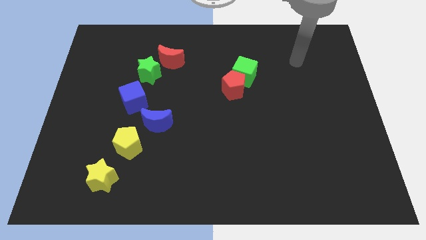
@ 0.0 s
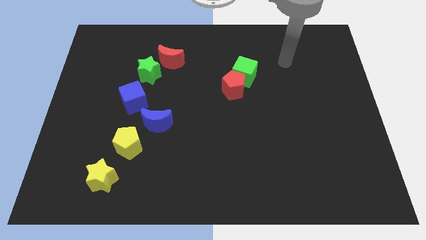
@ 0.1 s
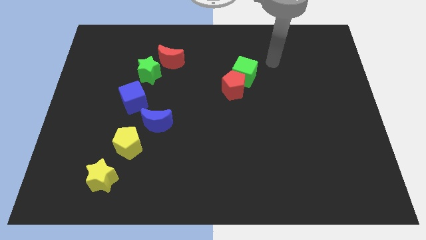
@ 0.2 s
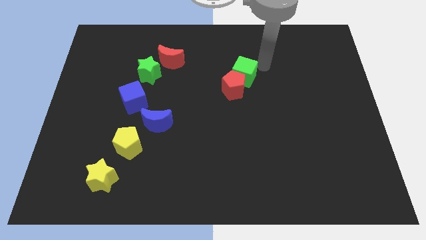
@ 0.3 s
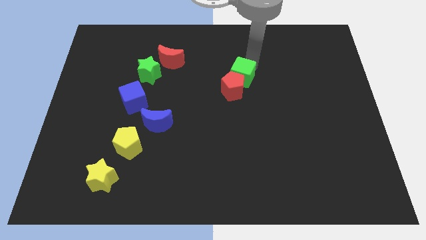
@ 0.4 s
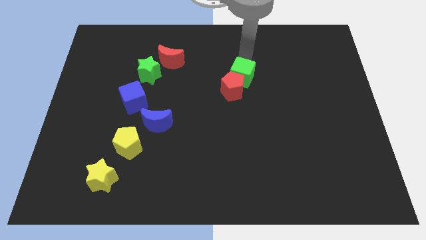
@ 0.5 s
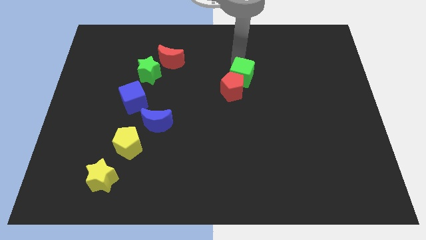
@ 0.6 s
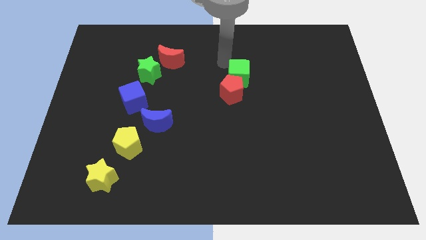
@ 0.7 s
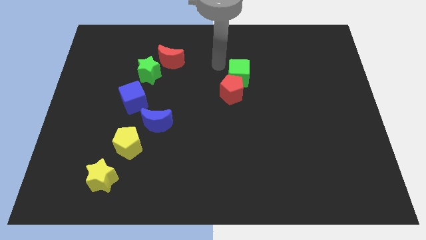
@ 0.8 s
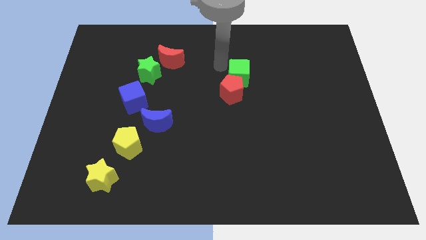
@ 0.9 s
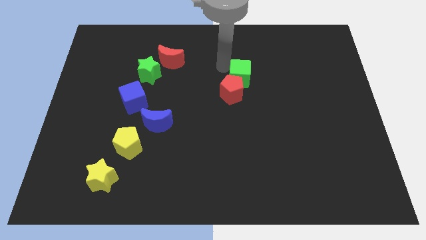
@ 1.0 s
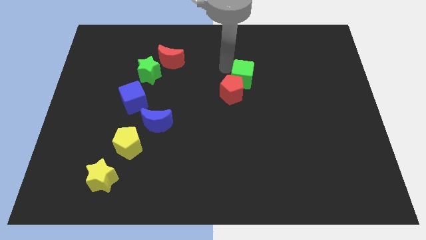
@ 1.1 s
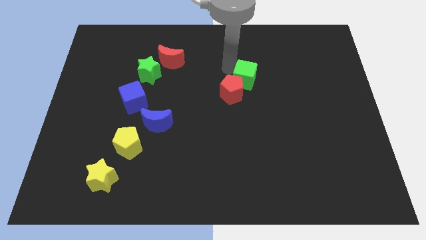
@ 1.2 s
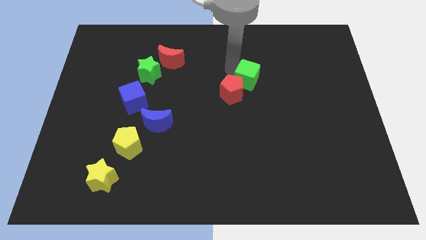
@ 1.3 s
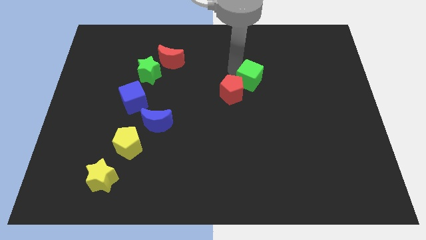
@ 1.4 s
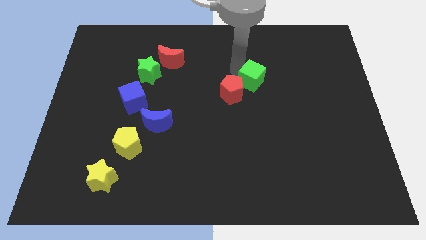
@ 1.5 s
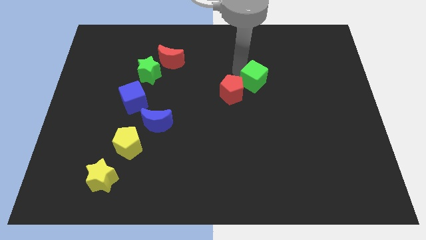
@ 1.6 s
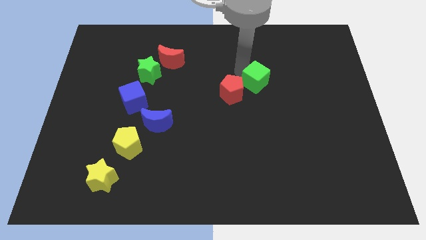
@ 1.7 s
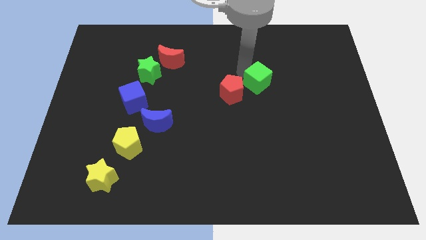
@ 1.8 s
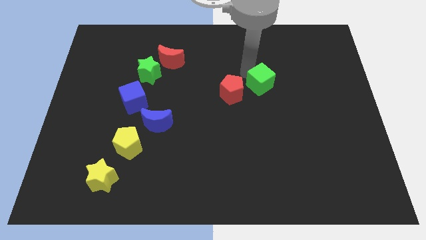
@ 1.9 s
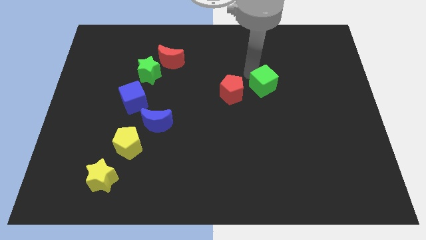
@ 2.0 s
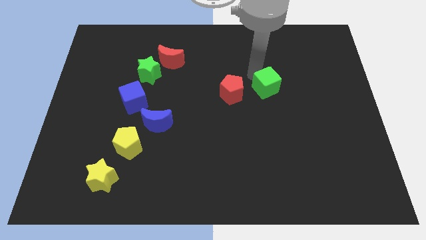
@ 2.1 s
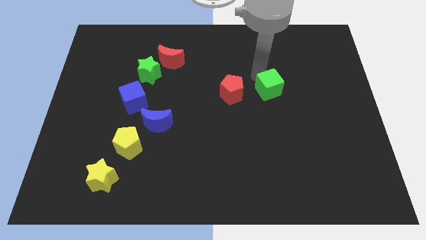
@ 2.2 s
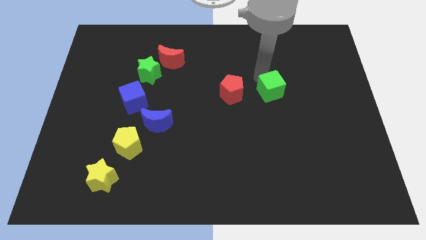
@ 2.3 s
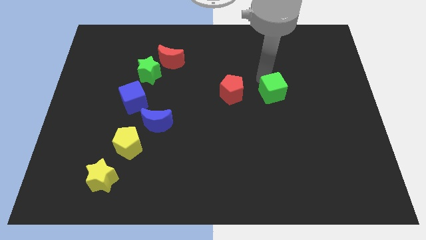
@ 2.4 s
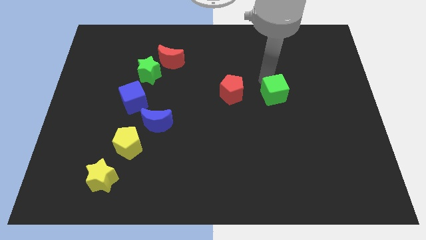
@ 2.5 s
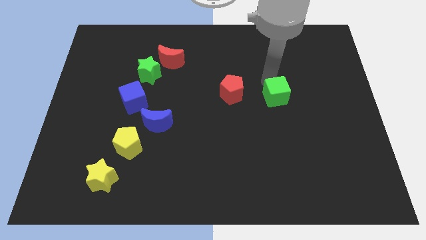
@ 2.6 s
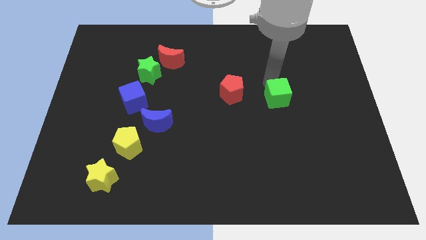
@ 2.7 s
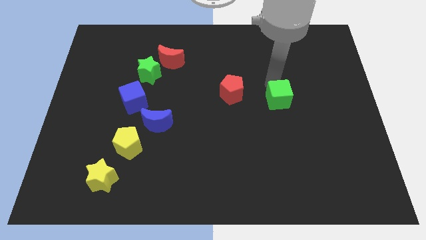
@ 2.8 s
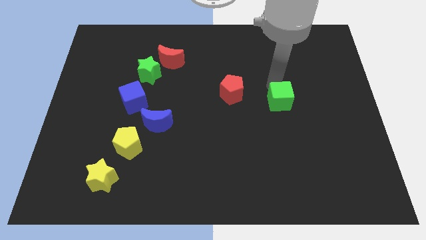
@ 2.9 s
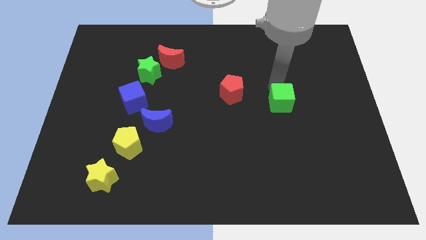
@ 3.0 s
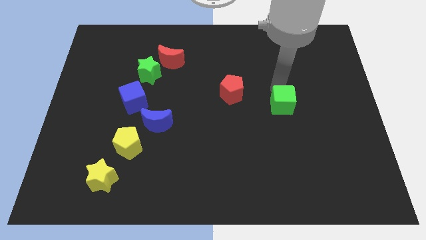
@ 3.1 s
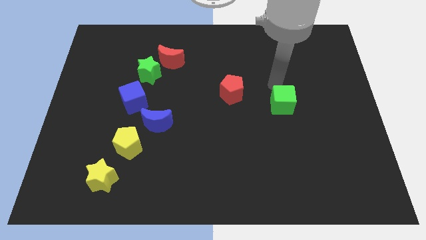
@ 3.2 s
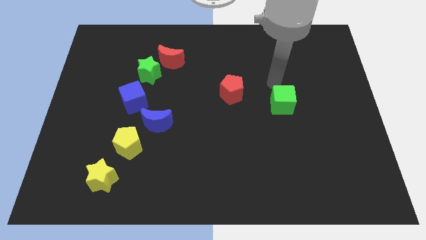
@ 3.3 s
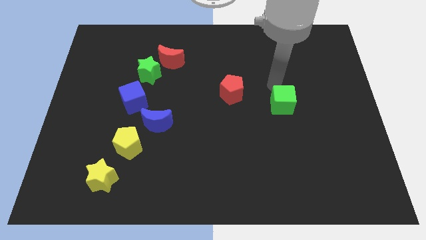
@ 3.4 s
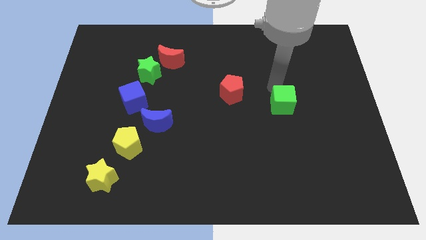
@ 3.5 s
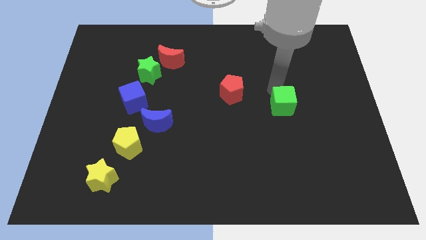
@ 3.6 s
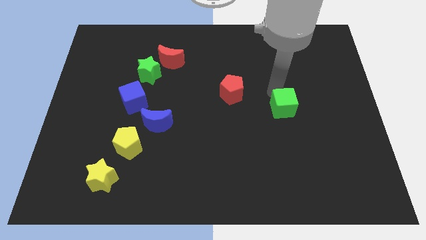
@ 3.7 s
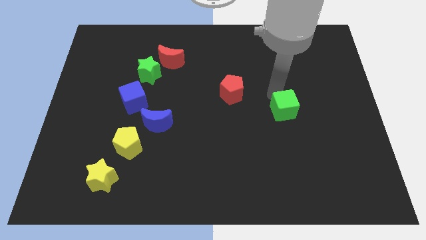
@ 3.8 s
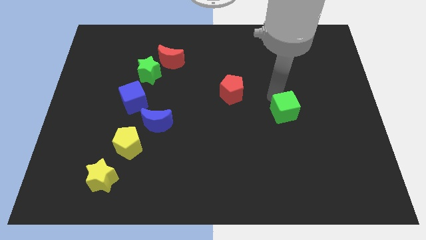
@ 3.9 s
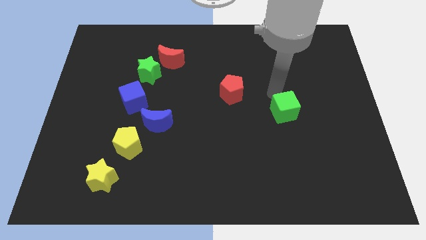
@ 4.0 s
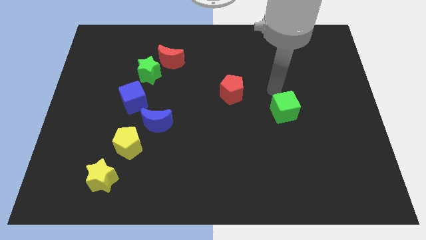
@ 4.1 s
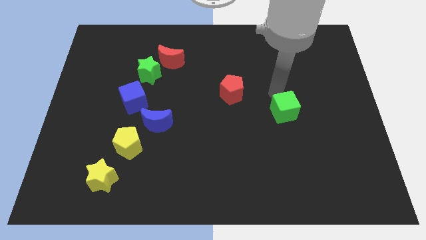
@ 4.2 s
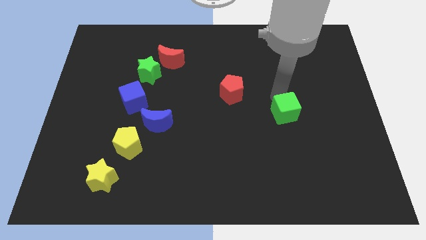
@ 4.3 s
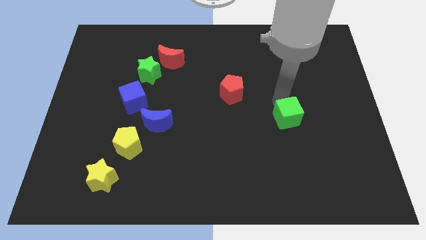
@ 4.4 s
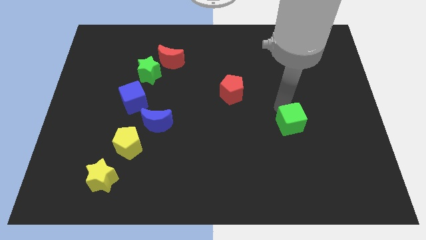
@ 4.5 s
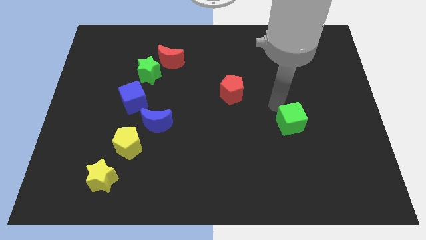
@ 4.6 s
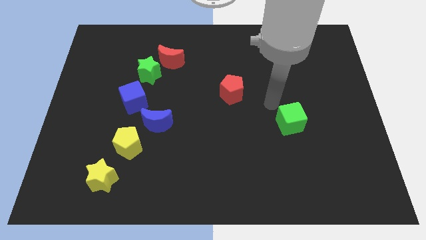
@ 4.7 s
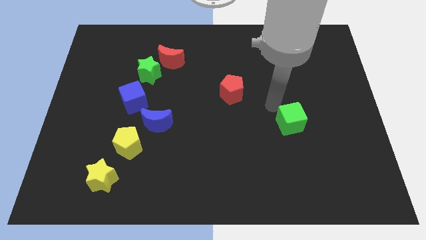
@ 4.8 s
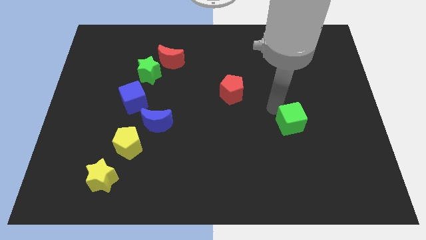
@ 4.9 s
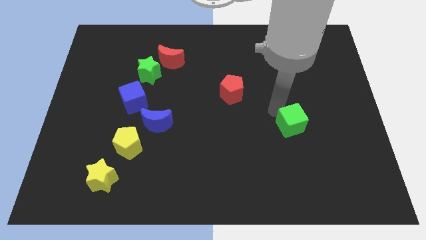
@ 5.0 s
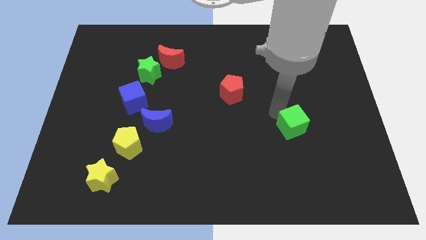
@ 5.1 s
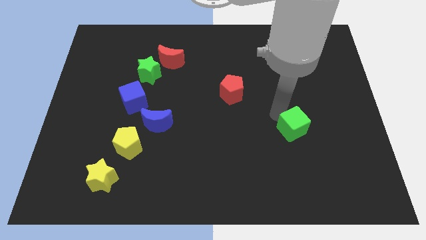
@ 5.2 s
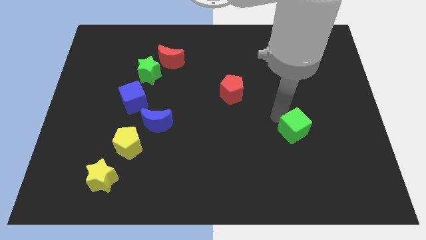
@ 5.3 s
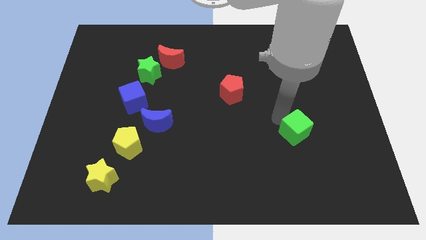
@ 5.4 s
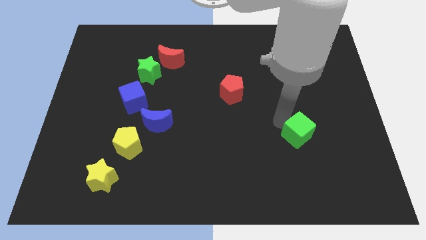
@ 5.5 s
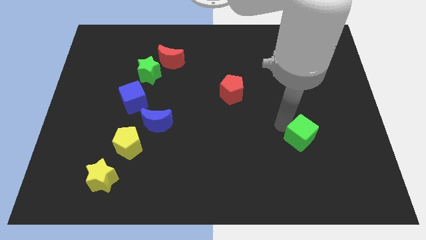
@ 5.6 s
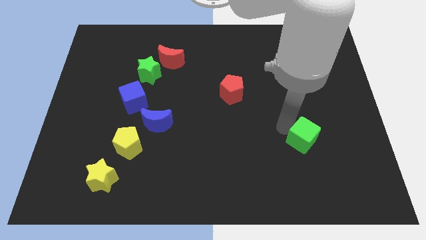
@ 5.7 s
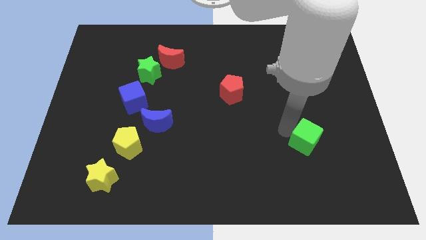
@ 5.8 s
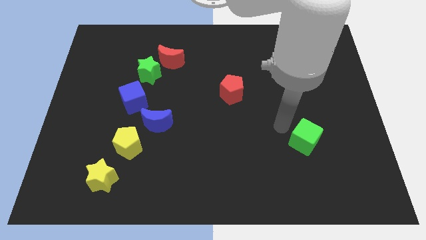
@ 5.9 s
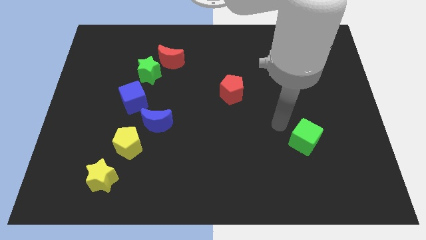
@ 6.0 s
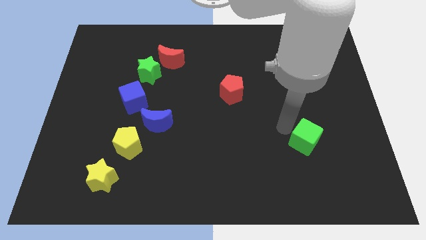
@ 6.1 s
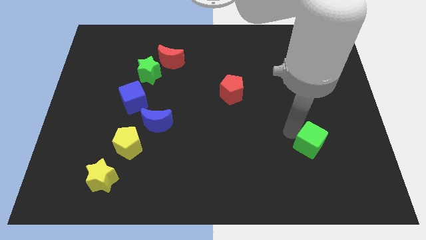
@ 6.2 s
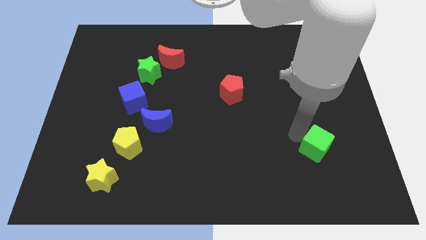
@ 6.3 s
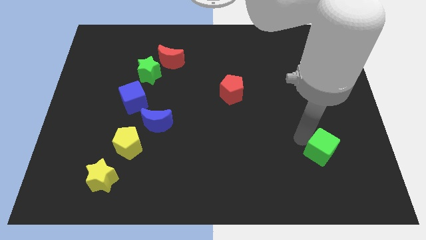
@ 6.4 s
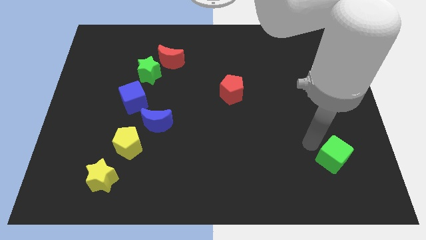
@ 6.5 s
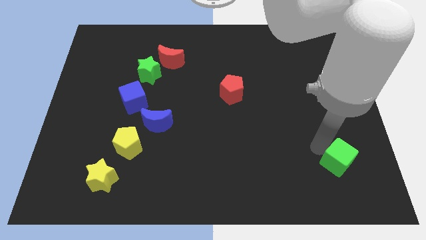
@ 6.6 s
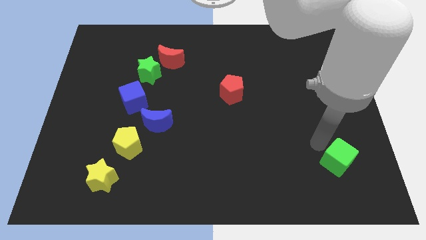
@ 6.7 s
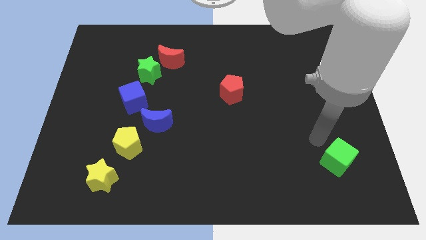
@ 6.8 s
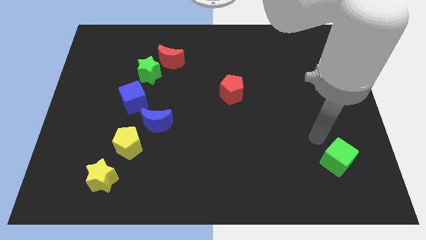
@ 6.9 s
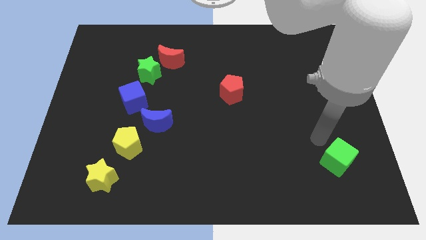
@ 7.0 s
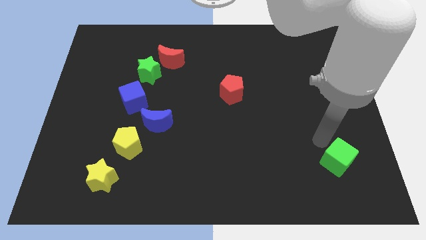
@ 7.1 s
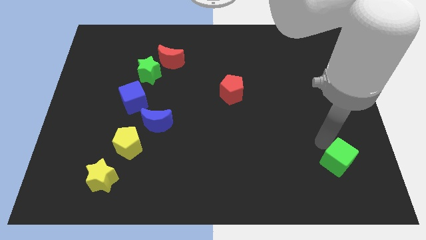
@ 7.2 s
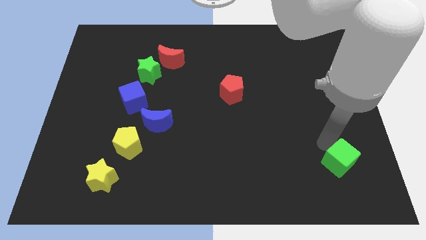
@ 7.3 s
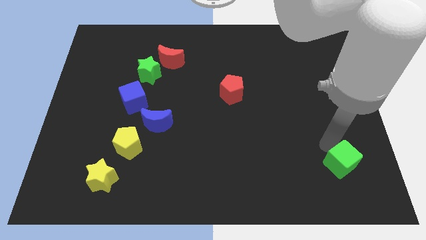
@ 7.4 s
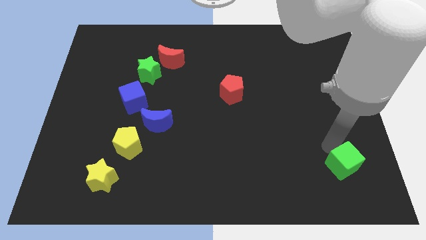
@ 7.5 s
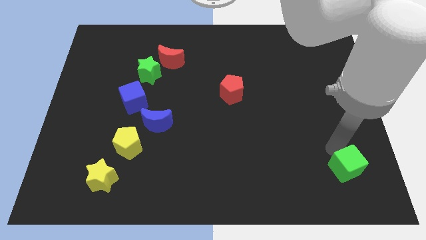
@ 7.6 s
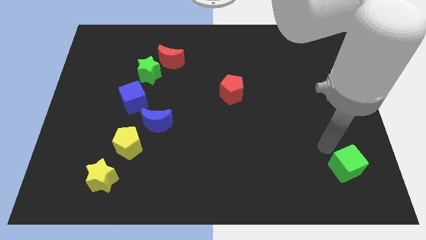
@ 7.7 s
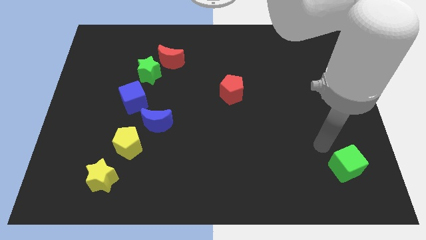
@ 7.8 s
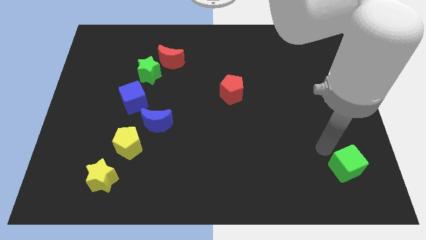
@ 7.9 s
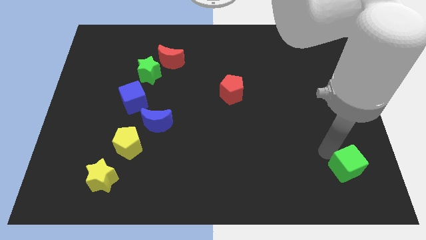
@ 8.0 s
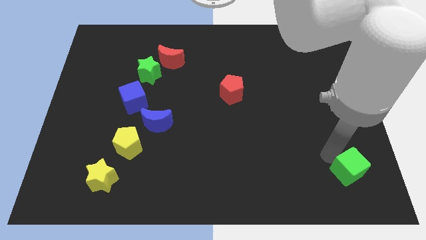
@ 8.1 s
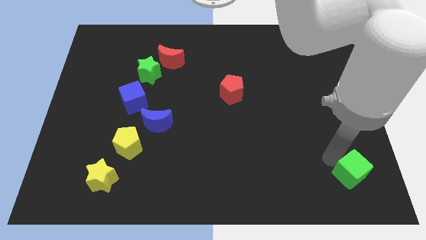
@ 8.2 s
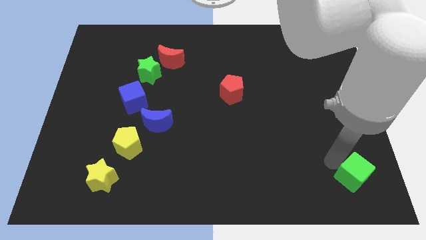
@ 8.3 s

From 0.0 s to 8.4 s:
push the green cube to the bottom right
